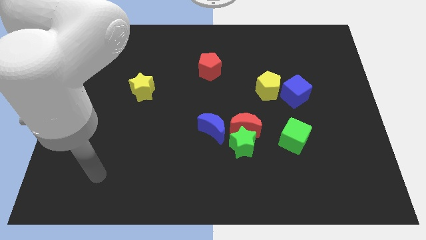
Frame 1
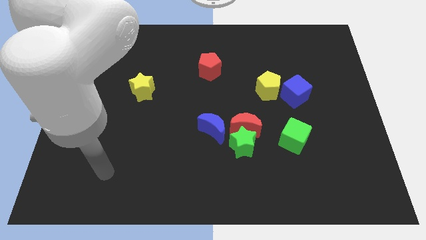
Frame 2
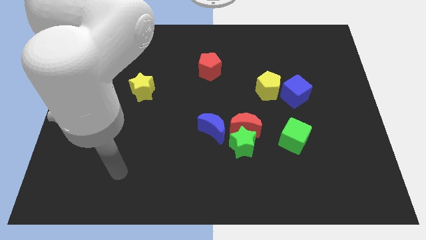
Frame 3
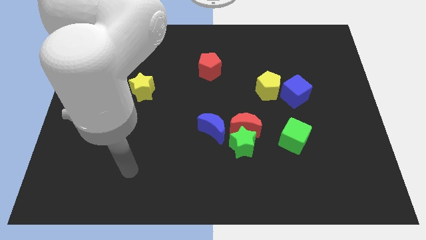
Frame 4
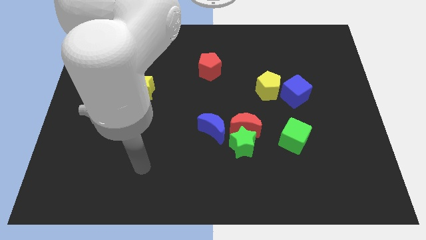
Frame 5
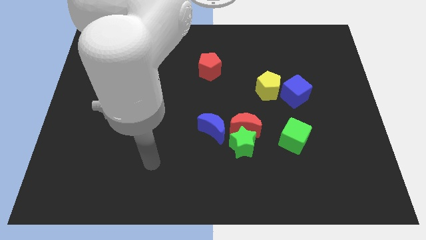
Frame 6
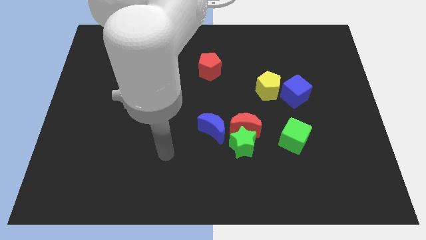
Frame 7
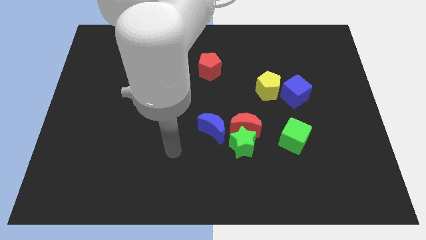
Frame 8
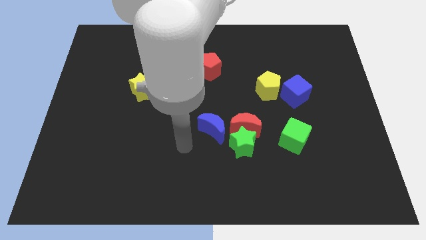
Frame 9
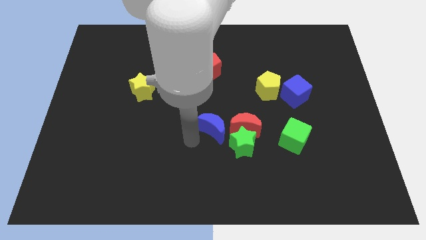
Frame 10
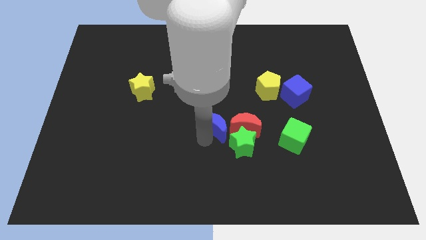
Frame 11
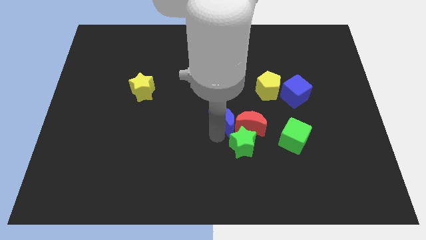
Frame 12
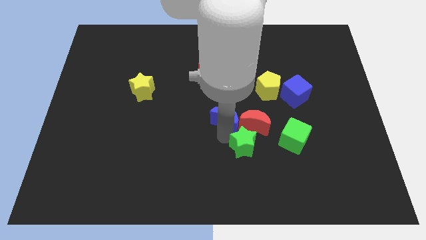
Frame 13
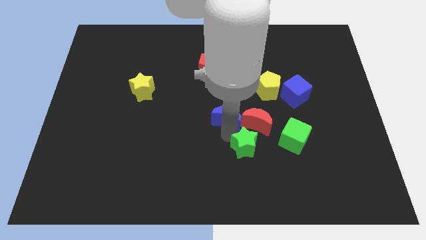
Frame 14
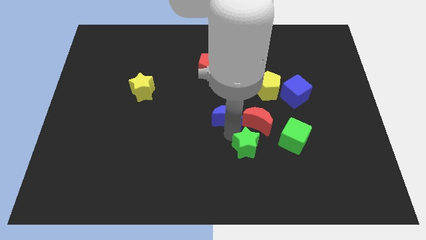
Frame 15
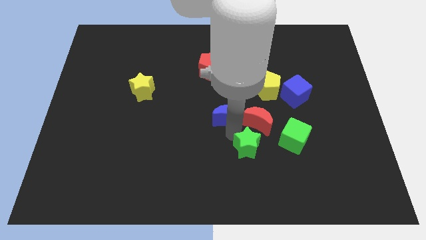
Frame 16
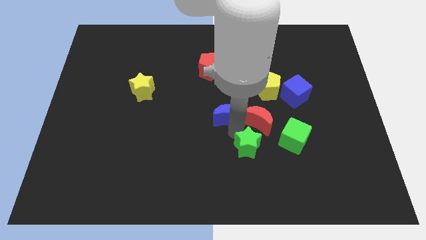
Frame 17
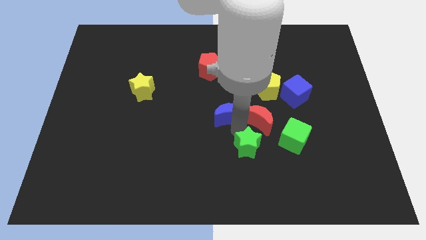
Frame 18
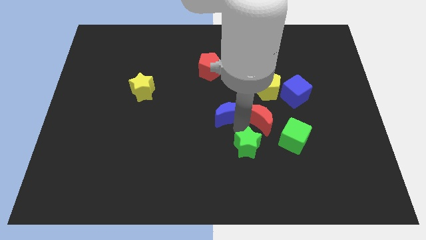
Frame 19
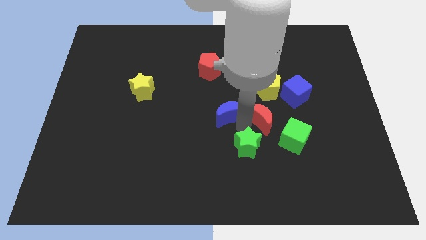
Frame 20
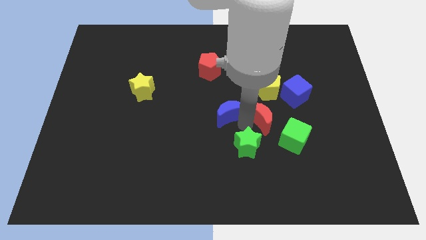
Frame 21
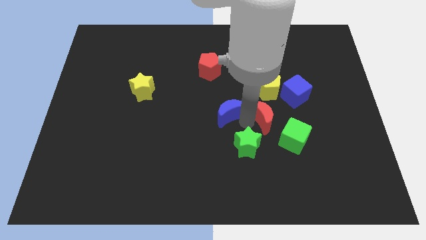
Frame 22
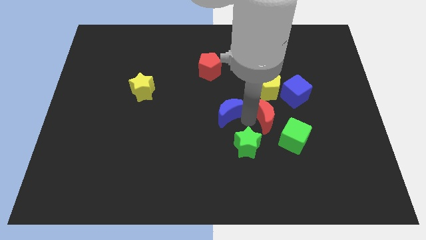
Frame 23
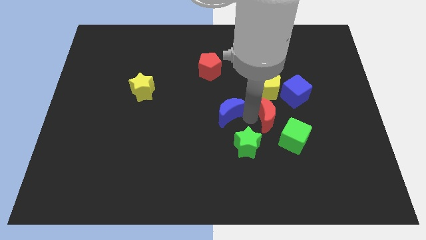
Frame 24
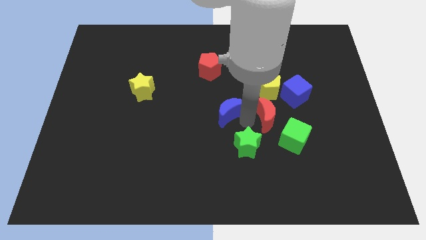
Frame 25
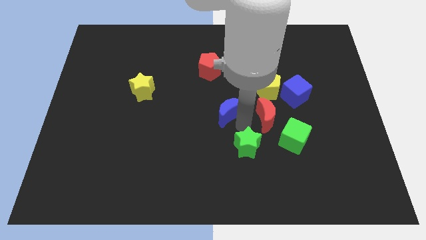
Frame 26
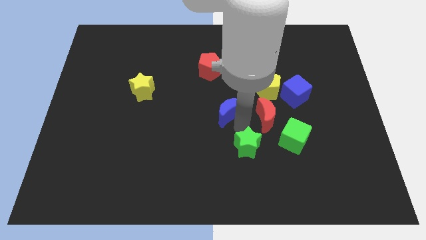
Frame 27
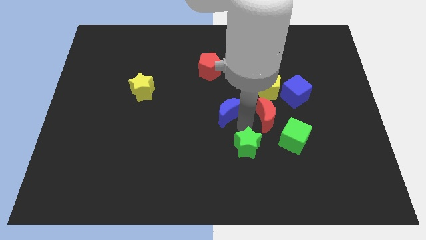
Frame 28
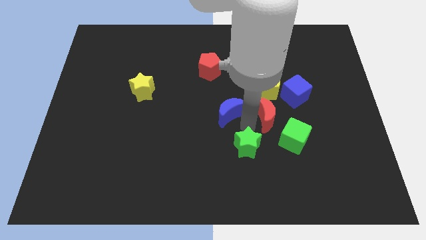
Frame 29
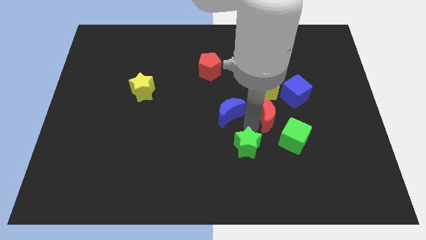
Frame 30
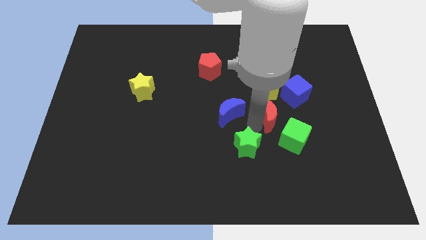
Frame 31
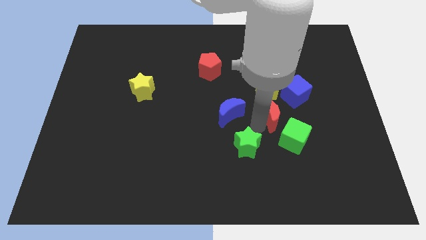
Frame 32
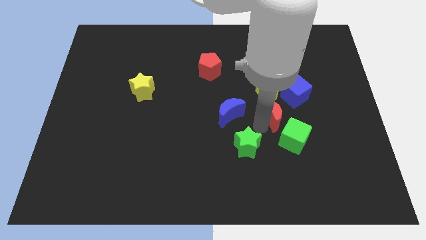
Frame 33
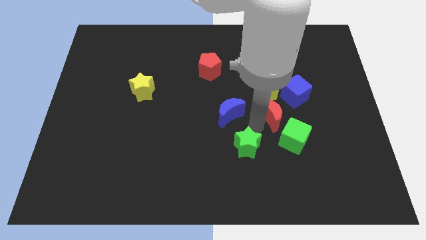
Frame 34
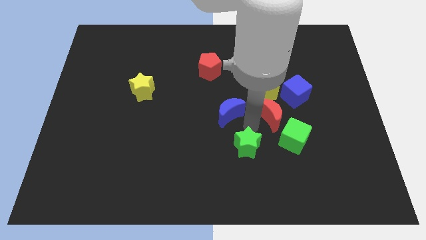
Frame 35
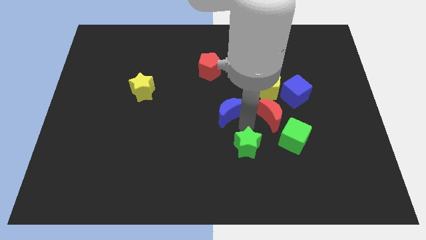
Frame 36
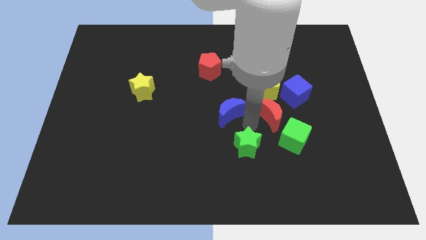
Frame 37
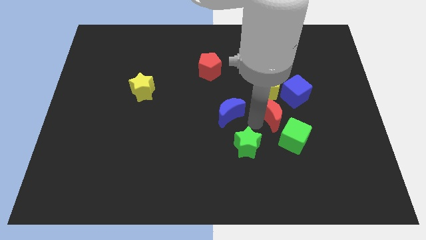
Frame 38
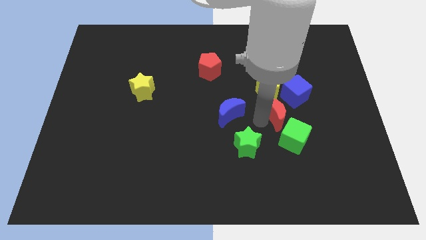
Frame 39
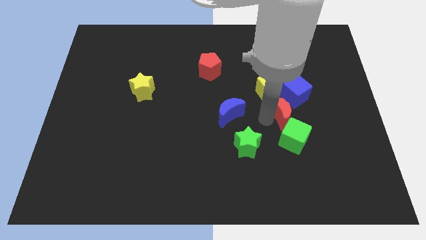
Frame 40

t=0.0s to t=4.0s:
move the red moon away from the green star and blue moon

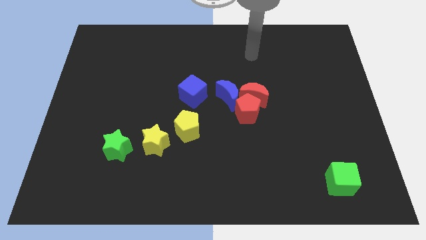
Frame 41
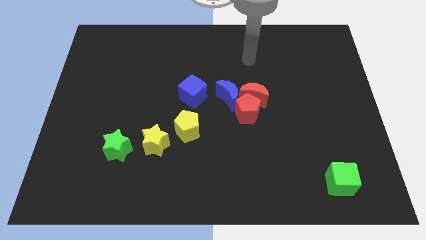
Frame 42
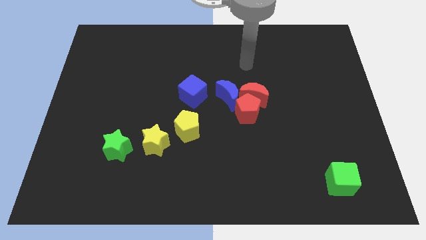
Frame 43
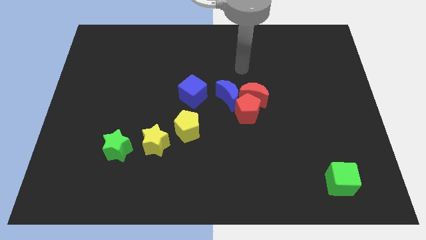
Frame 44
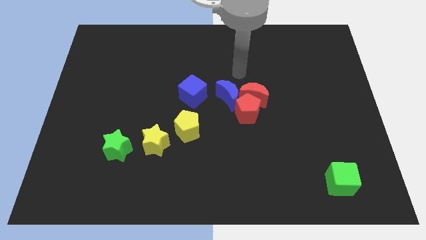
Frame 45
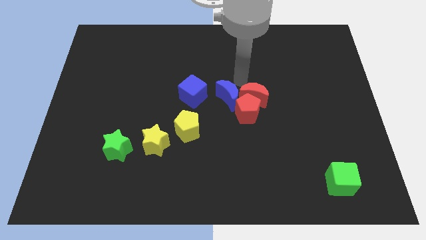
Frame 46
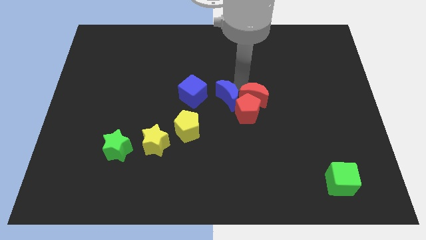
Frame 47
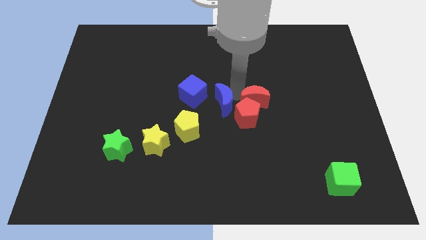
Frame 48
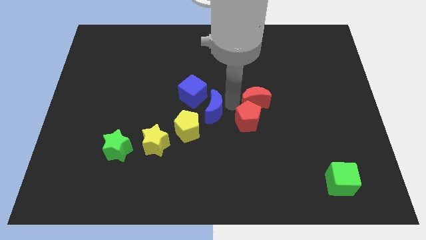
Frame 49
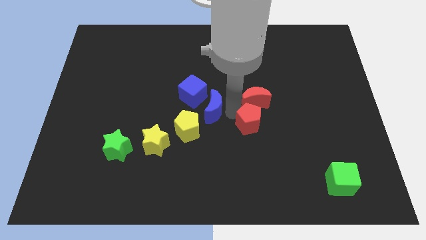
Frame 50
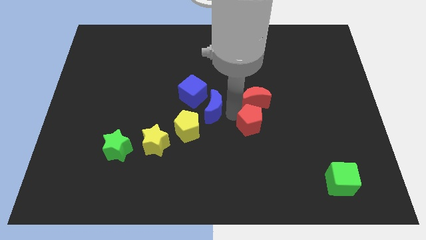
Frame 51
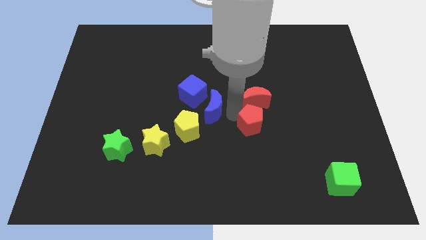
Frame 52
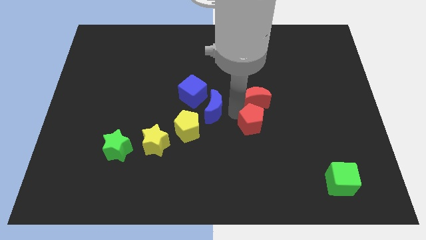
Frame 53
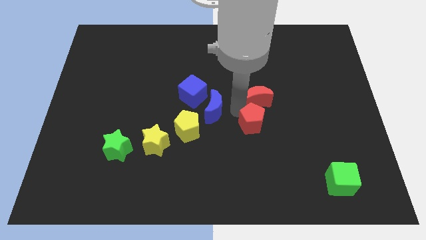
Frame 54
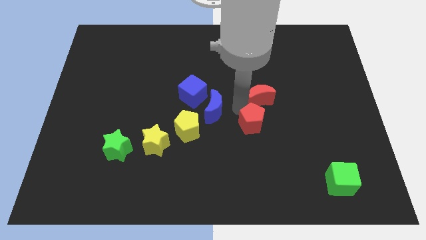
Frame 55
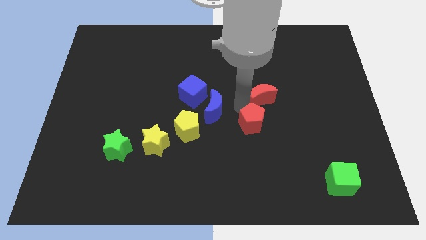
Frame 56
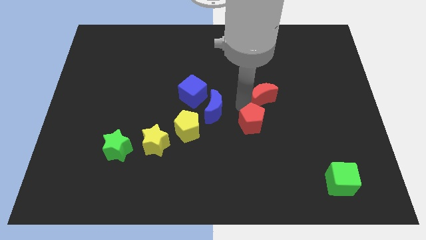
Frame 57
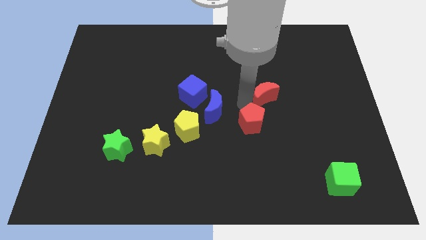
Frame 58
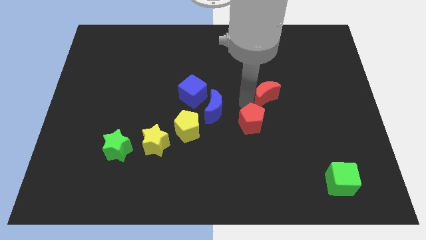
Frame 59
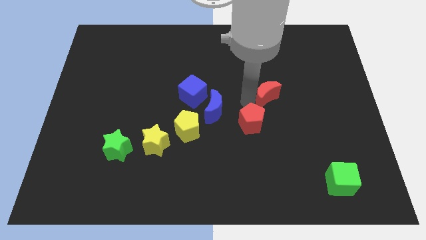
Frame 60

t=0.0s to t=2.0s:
move the red moon away from the red pentagon and blue moon

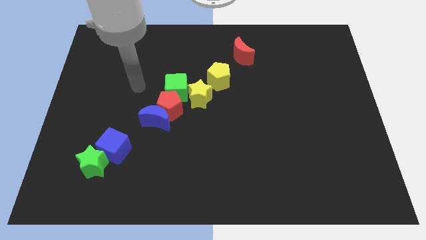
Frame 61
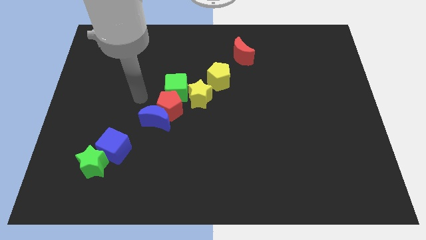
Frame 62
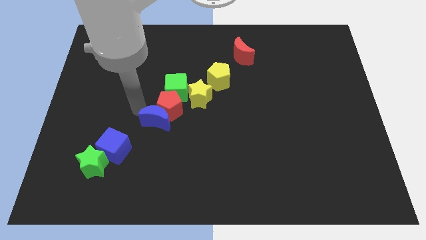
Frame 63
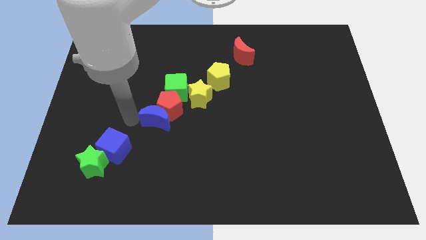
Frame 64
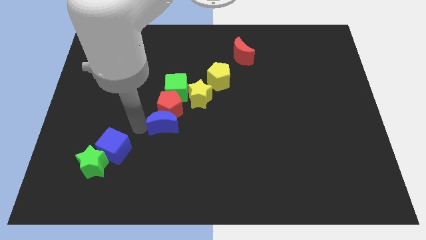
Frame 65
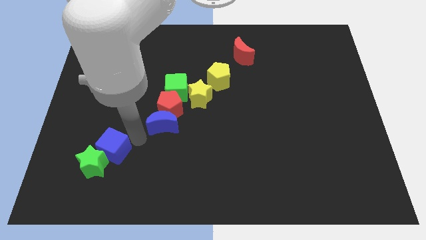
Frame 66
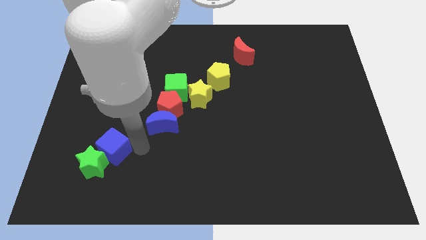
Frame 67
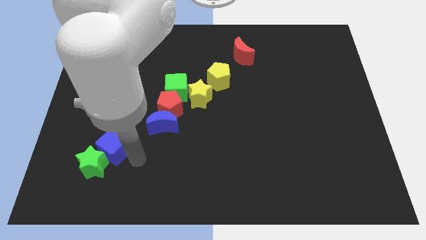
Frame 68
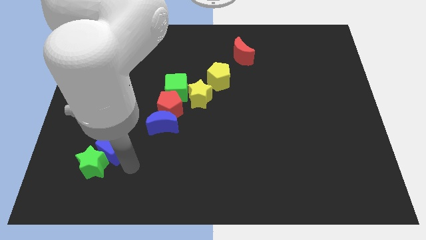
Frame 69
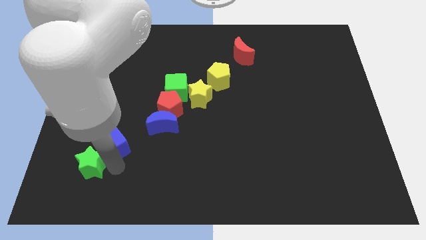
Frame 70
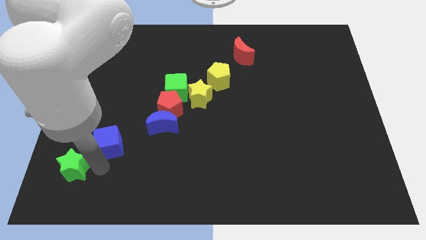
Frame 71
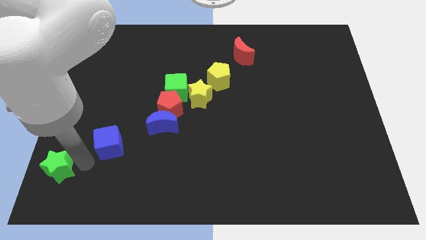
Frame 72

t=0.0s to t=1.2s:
separate the blue cube from the green star

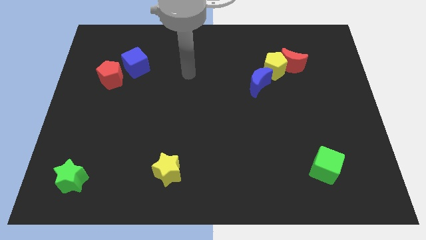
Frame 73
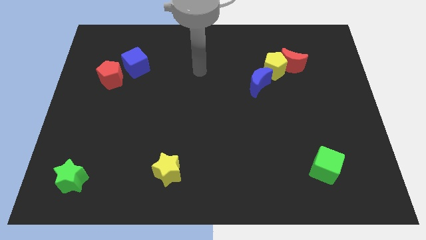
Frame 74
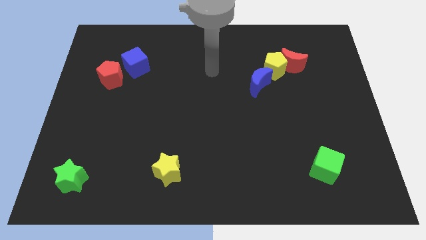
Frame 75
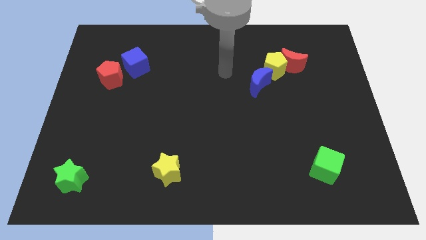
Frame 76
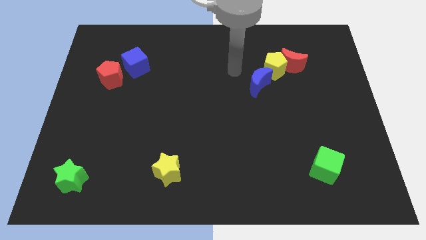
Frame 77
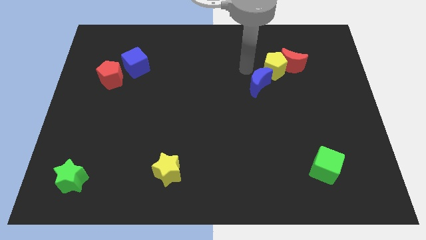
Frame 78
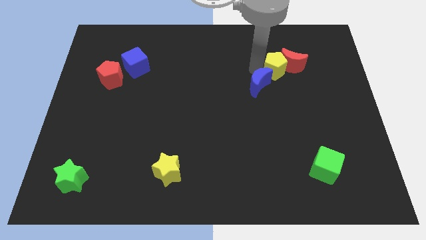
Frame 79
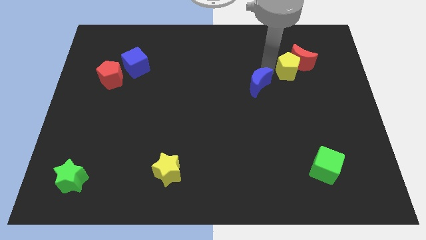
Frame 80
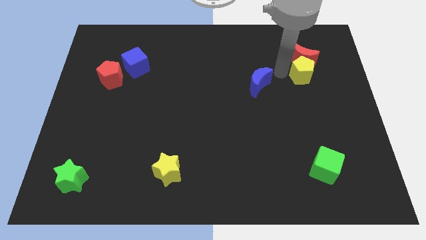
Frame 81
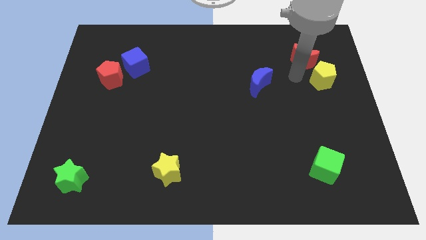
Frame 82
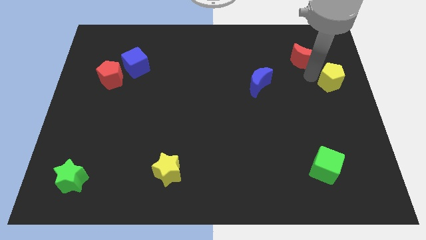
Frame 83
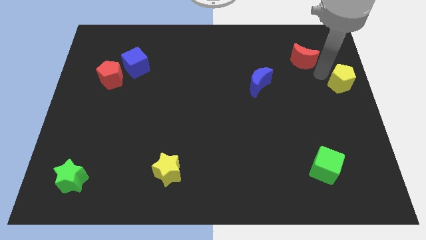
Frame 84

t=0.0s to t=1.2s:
pull the red moon apart from the yellow pentagon

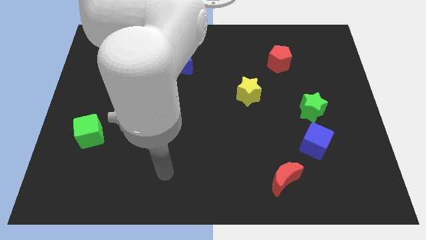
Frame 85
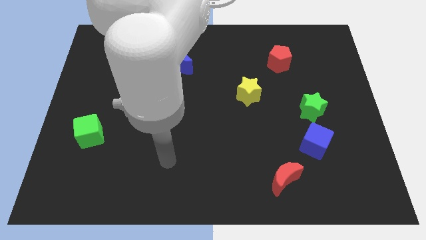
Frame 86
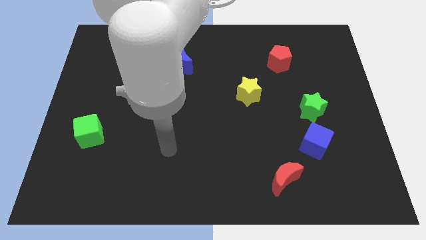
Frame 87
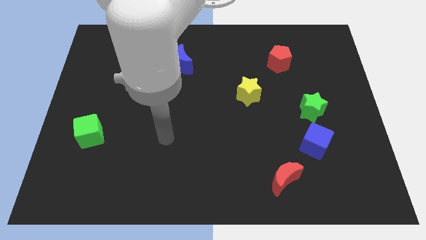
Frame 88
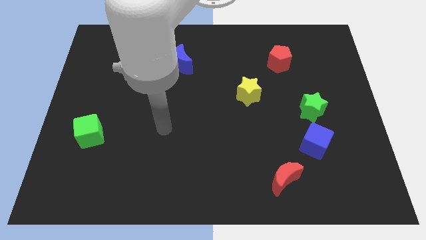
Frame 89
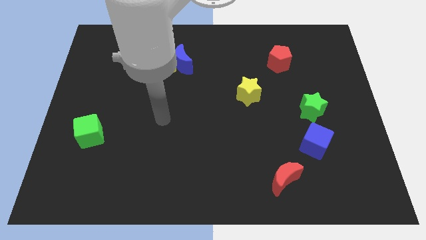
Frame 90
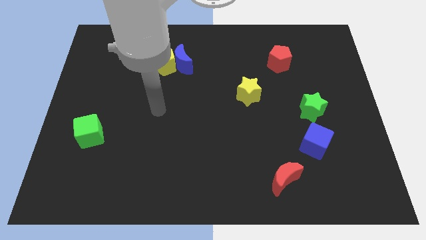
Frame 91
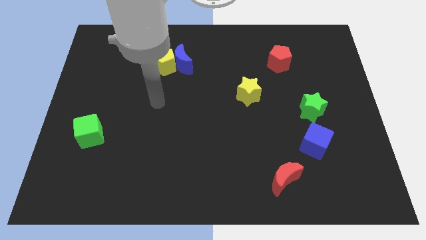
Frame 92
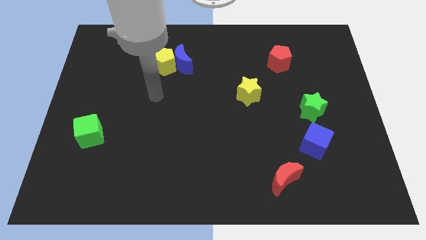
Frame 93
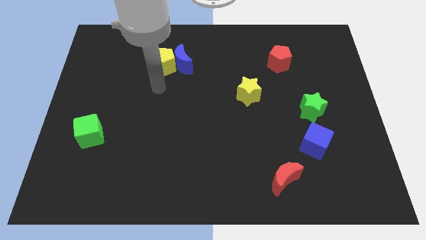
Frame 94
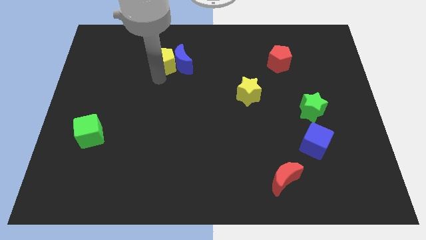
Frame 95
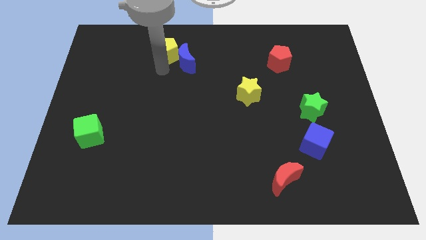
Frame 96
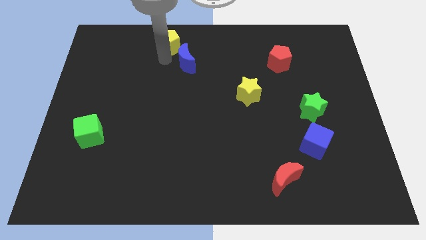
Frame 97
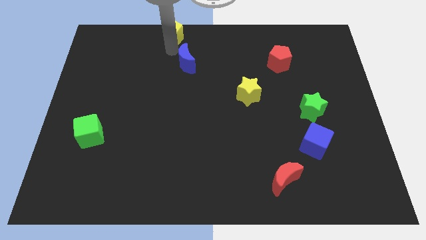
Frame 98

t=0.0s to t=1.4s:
pull the blue moon apart from the yellow pentagon
